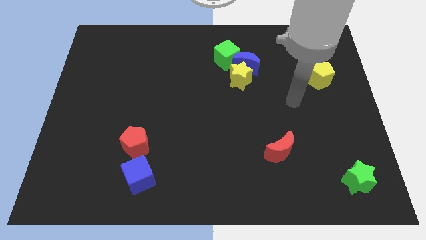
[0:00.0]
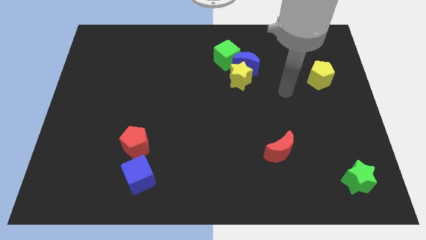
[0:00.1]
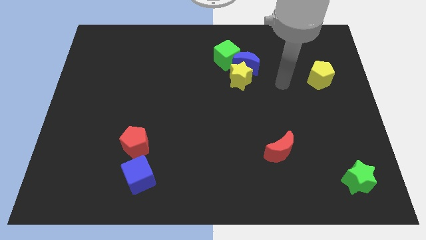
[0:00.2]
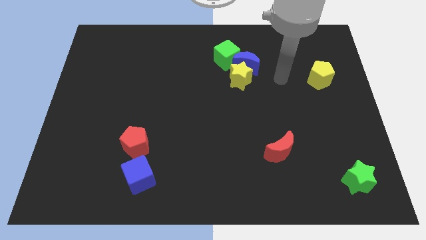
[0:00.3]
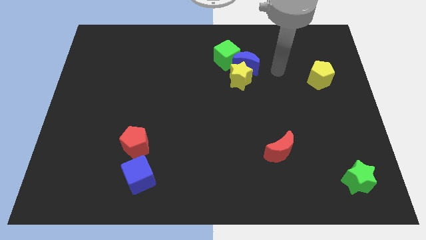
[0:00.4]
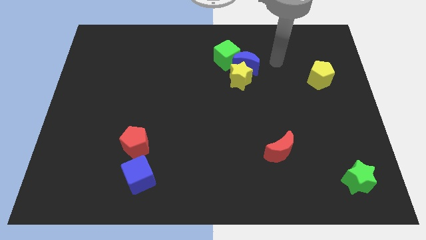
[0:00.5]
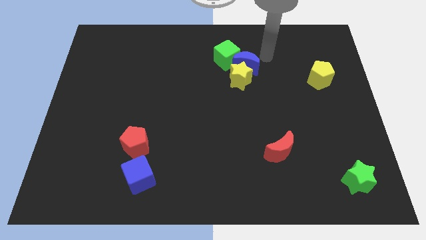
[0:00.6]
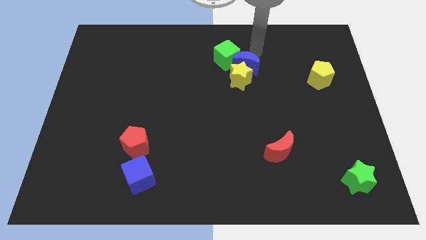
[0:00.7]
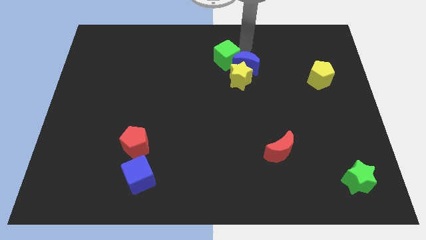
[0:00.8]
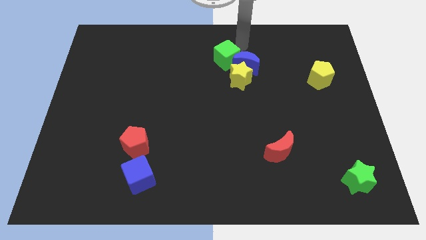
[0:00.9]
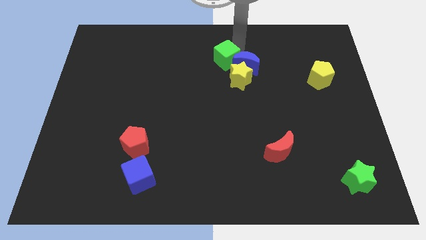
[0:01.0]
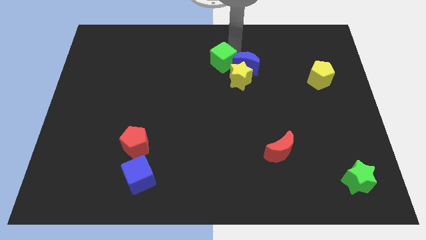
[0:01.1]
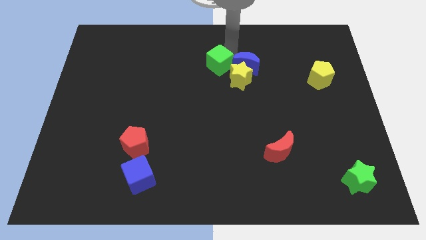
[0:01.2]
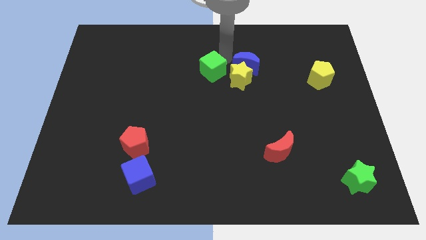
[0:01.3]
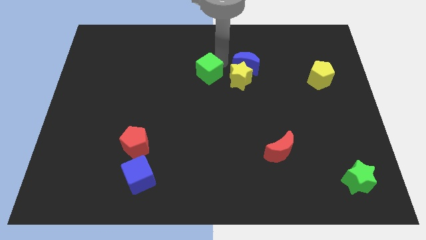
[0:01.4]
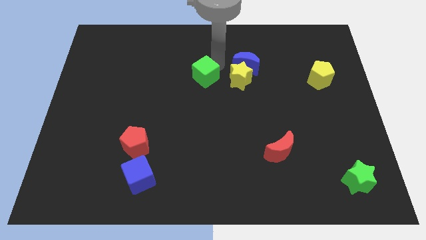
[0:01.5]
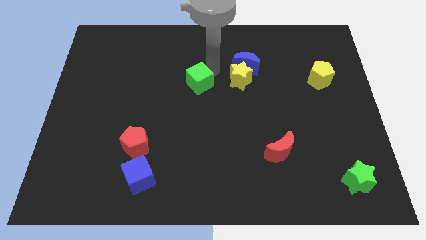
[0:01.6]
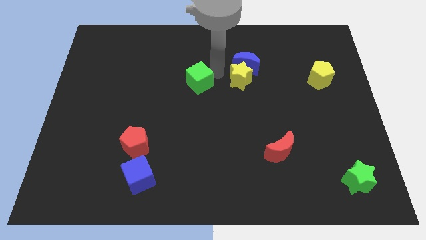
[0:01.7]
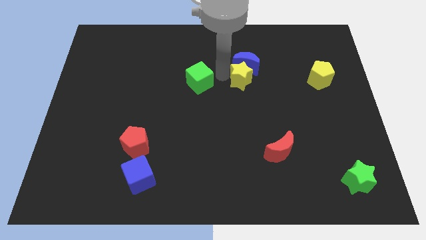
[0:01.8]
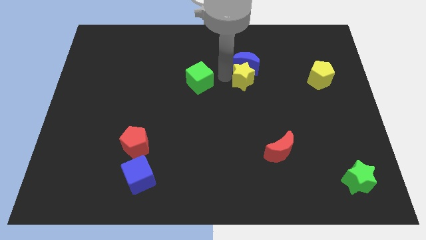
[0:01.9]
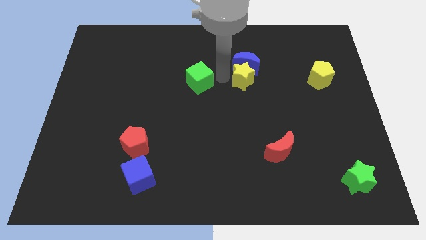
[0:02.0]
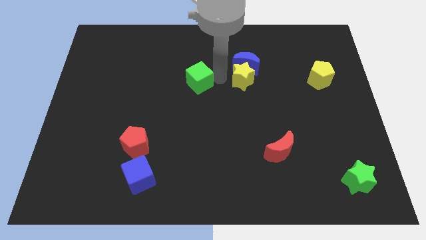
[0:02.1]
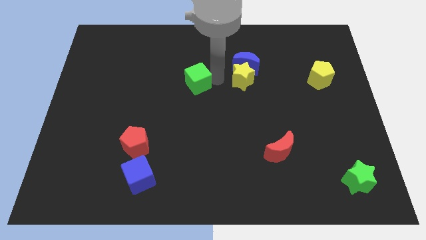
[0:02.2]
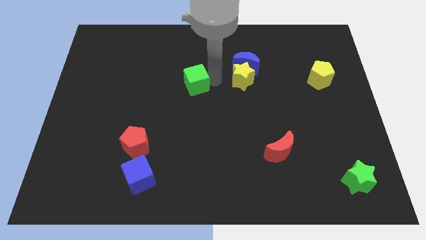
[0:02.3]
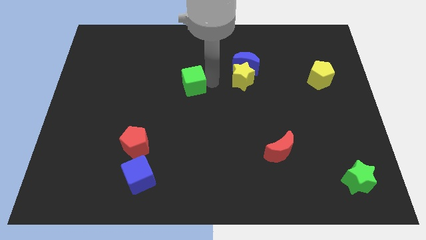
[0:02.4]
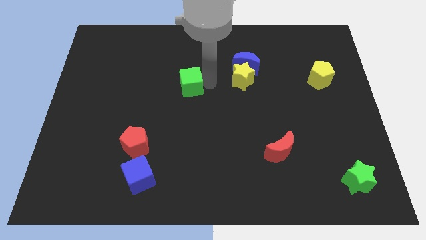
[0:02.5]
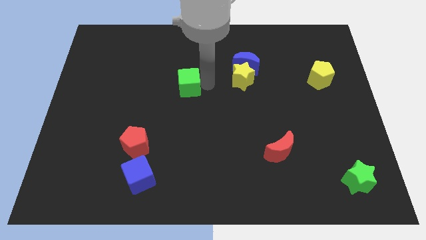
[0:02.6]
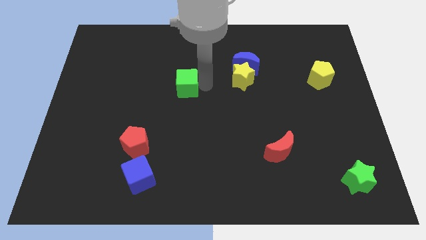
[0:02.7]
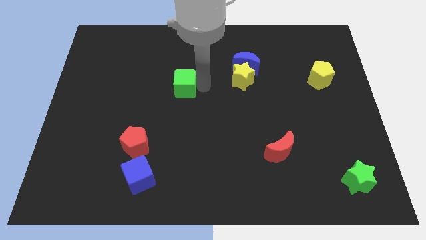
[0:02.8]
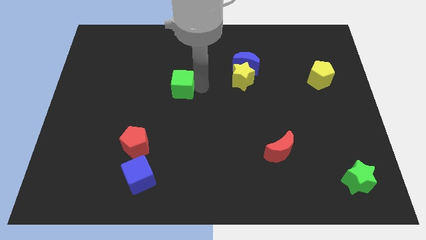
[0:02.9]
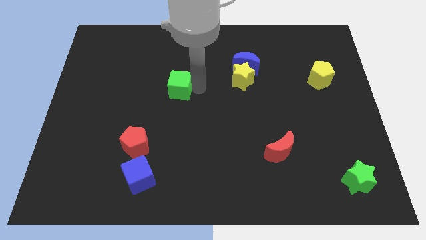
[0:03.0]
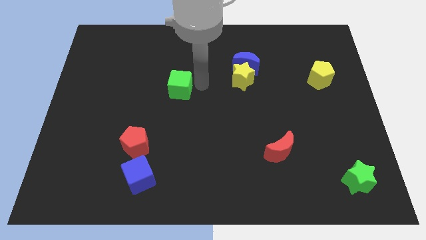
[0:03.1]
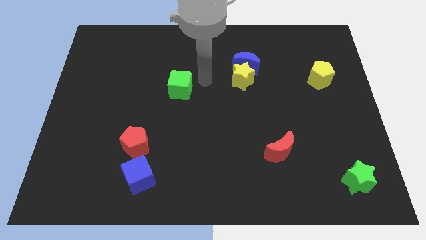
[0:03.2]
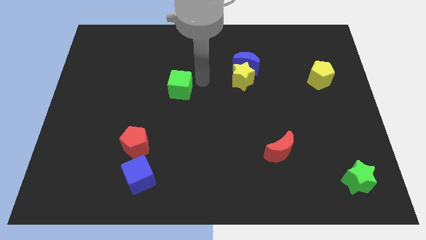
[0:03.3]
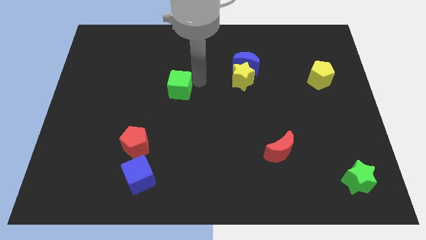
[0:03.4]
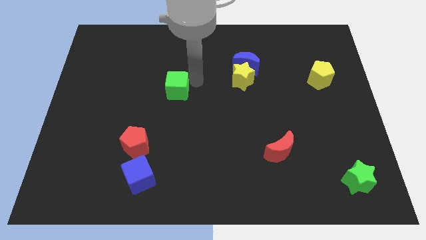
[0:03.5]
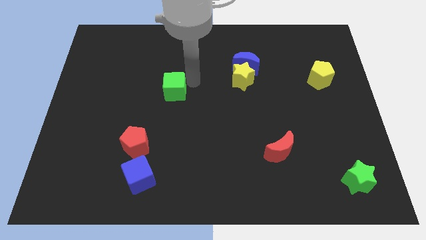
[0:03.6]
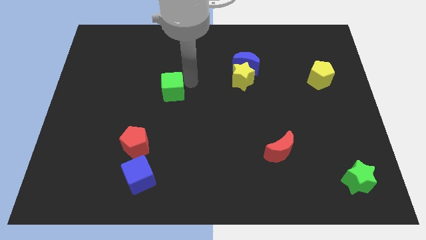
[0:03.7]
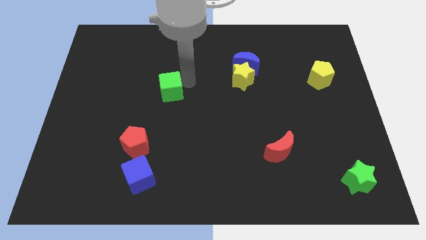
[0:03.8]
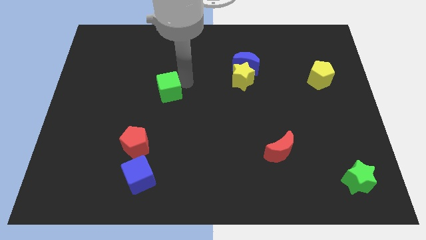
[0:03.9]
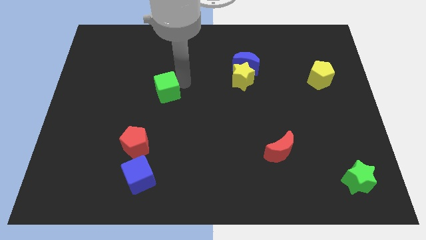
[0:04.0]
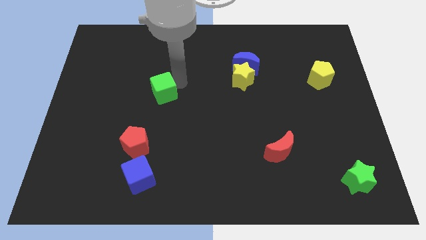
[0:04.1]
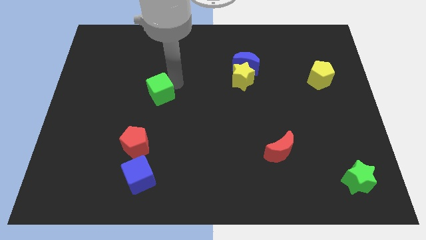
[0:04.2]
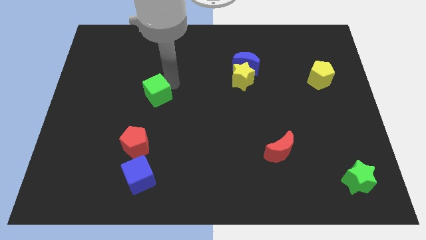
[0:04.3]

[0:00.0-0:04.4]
move the green cube diagonally downwards and left

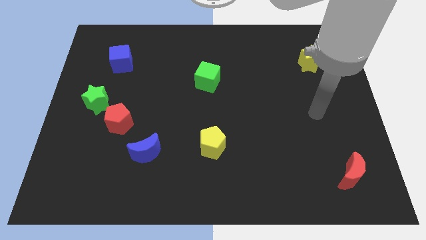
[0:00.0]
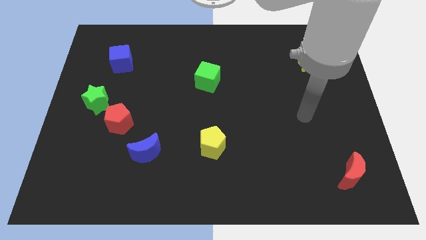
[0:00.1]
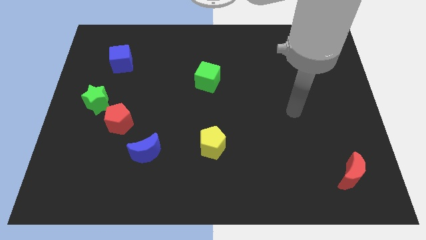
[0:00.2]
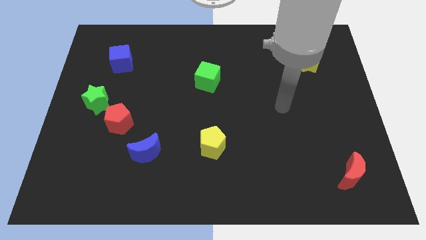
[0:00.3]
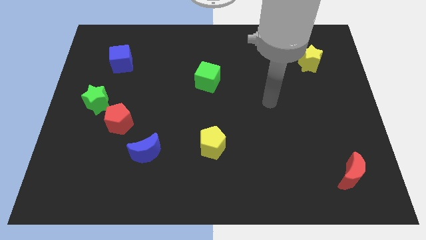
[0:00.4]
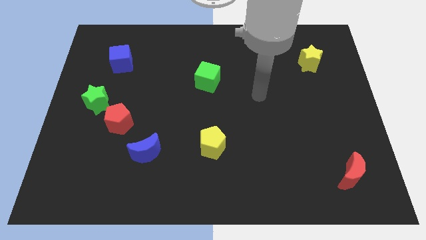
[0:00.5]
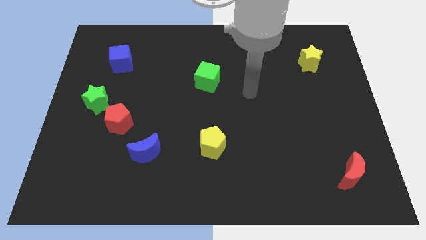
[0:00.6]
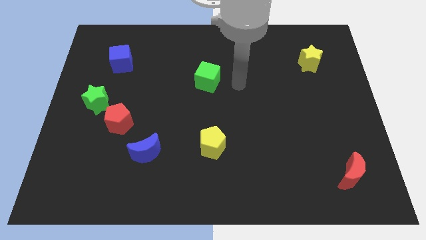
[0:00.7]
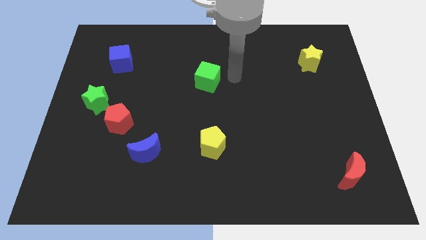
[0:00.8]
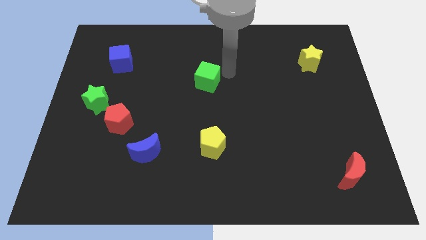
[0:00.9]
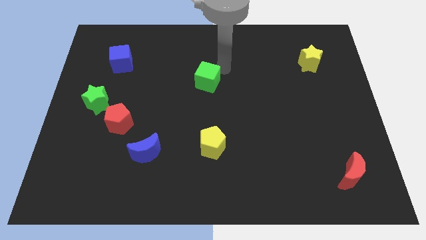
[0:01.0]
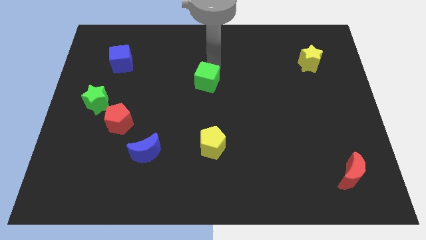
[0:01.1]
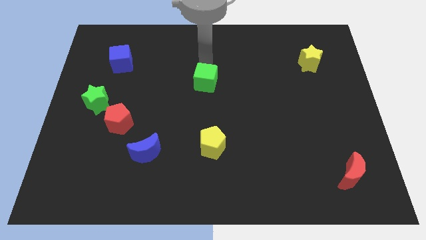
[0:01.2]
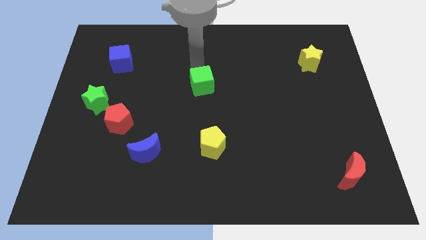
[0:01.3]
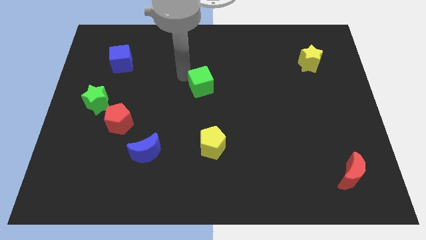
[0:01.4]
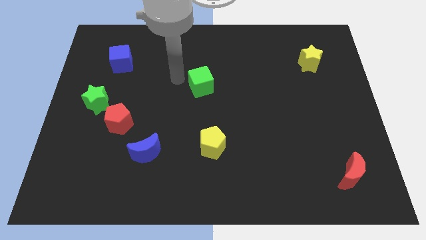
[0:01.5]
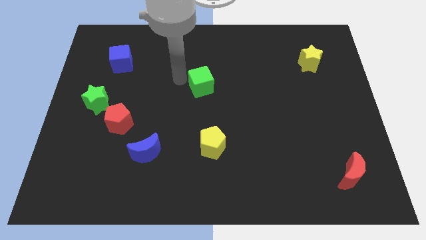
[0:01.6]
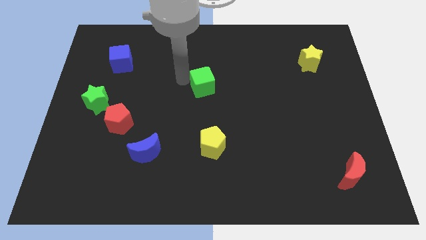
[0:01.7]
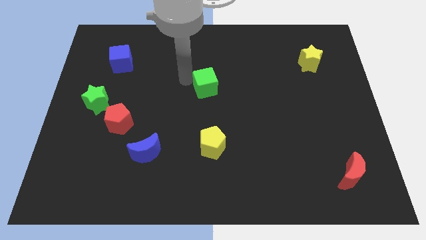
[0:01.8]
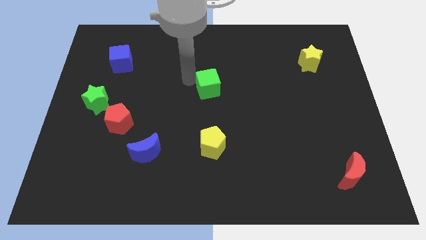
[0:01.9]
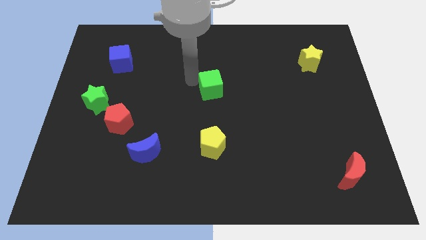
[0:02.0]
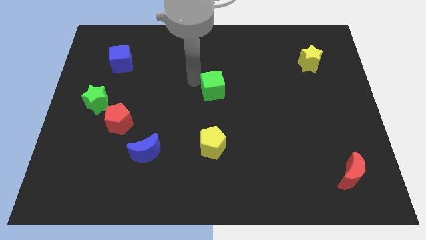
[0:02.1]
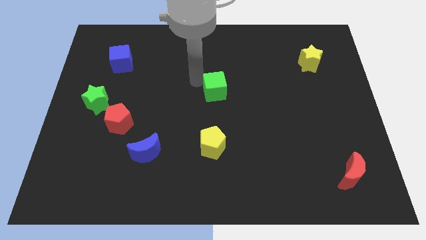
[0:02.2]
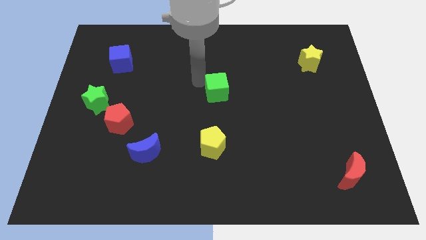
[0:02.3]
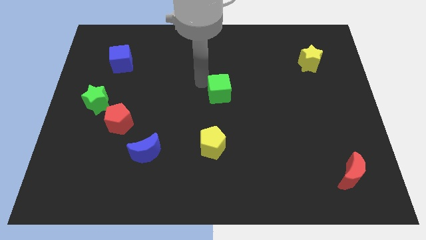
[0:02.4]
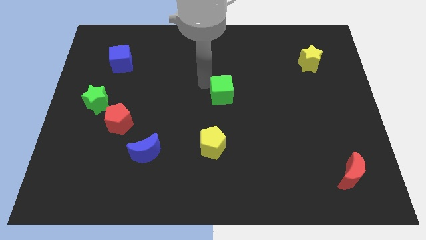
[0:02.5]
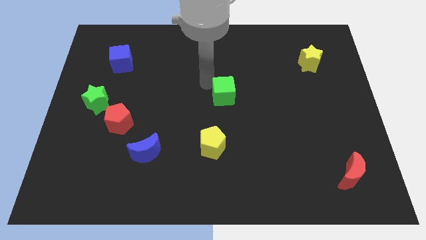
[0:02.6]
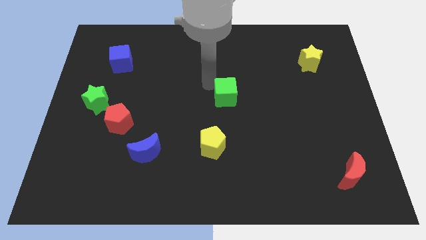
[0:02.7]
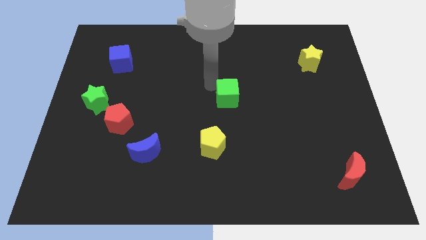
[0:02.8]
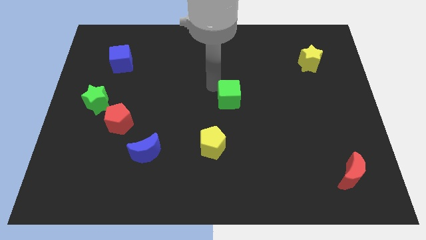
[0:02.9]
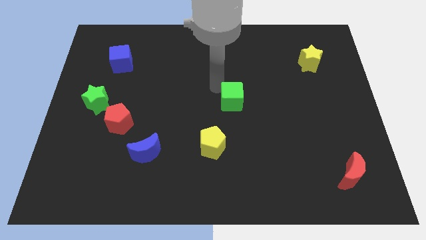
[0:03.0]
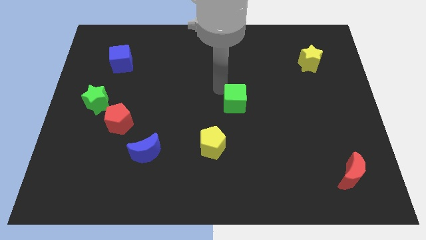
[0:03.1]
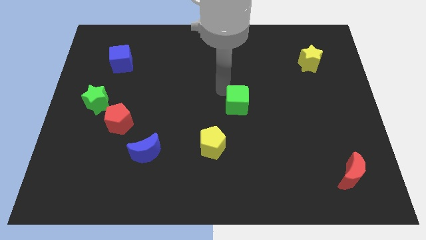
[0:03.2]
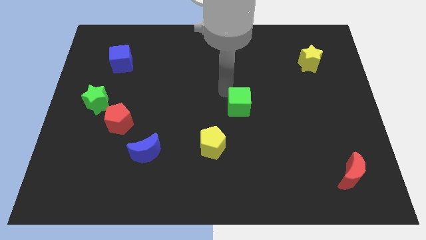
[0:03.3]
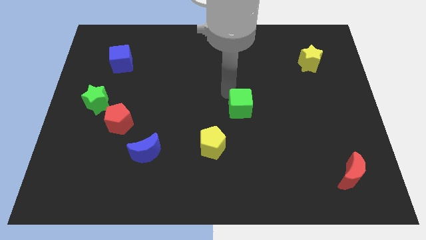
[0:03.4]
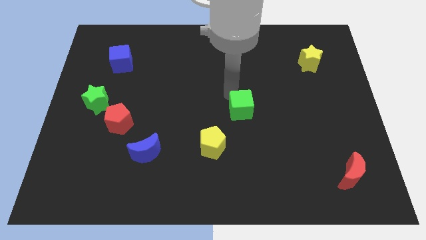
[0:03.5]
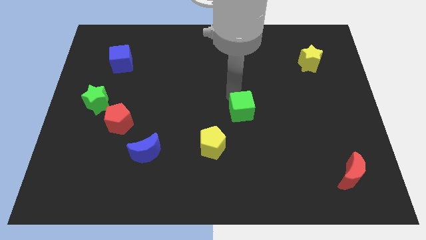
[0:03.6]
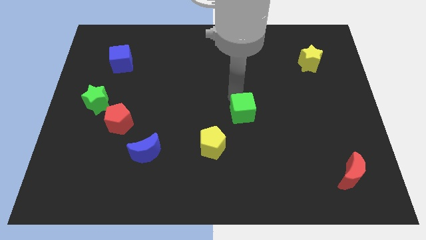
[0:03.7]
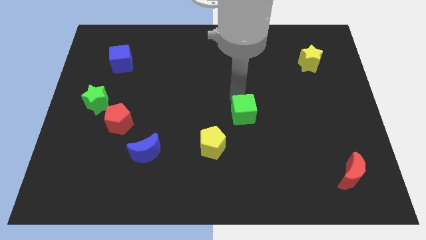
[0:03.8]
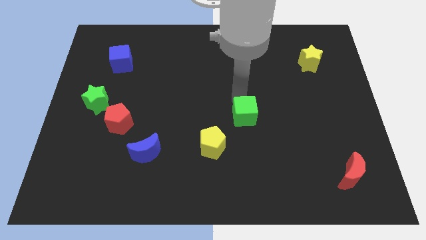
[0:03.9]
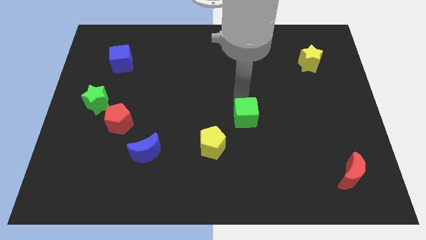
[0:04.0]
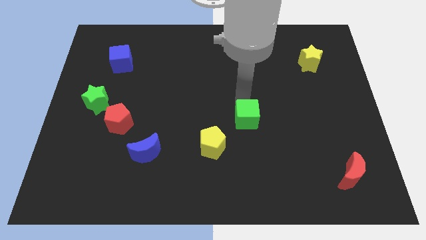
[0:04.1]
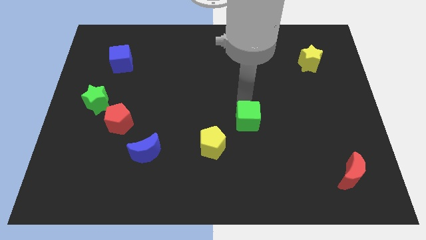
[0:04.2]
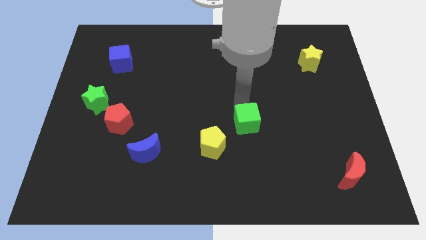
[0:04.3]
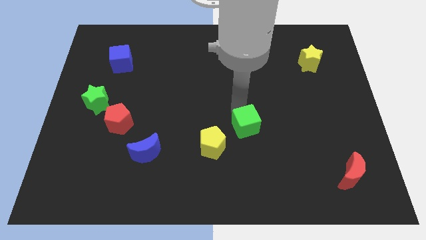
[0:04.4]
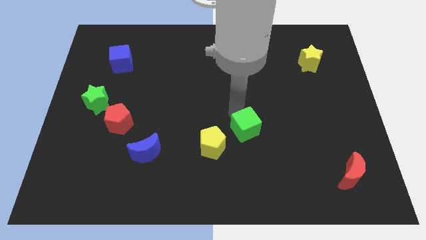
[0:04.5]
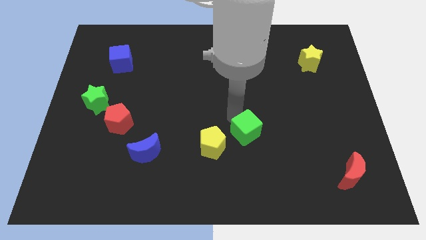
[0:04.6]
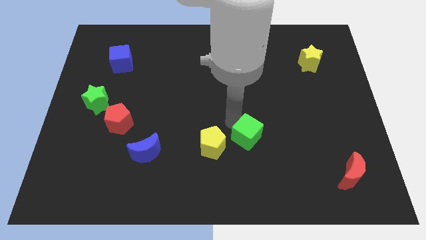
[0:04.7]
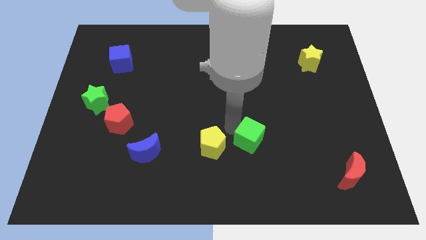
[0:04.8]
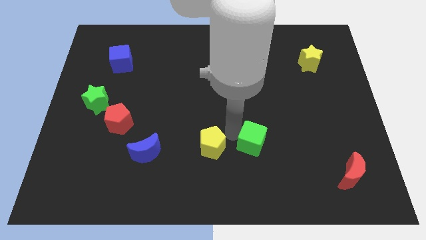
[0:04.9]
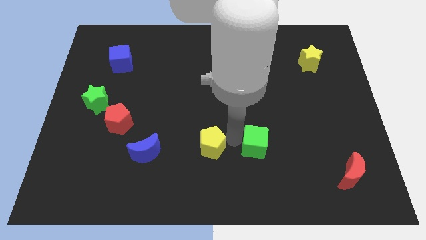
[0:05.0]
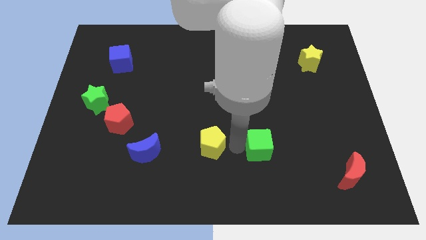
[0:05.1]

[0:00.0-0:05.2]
slide the green cube diagonally down and to the right
